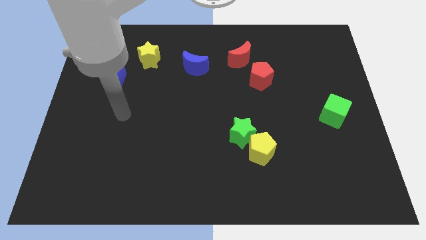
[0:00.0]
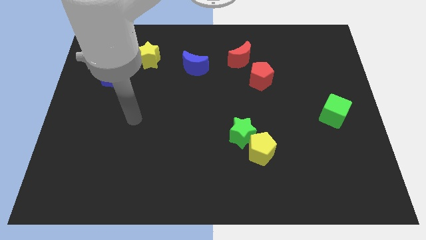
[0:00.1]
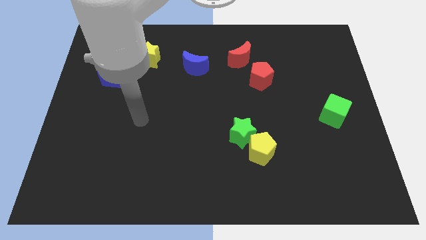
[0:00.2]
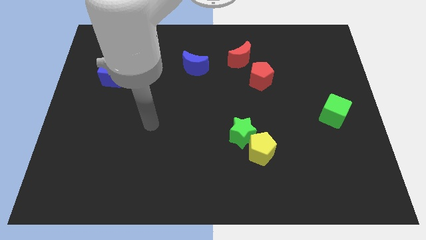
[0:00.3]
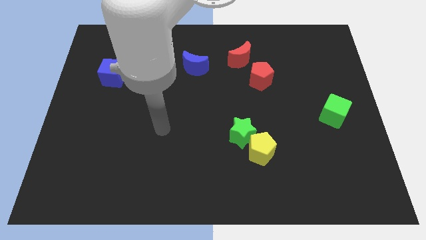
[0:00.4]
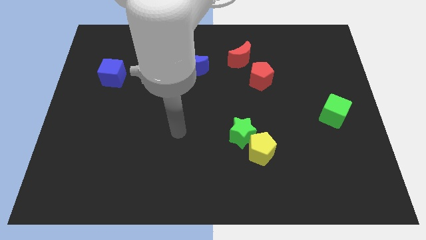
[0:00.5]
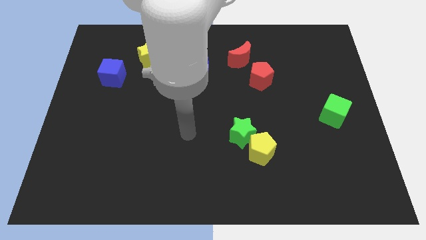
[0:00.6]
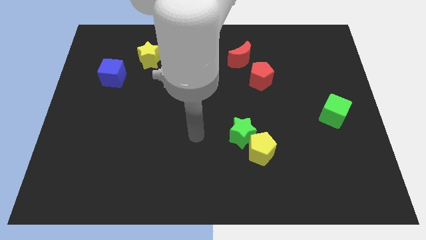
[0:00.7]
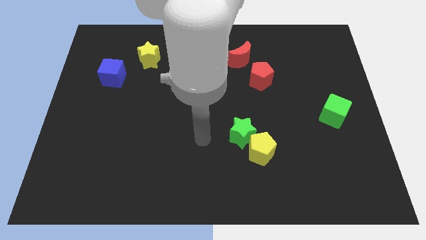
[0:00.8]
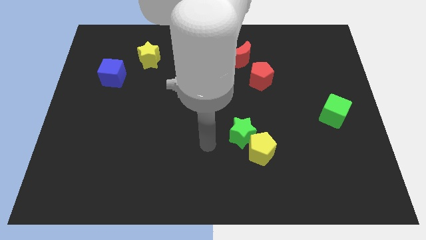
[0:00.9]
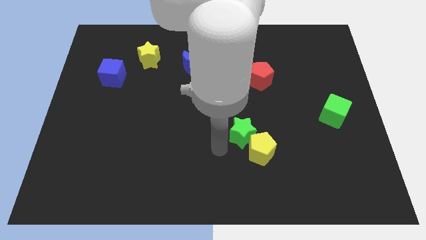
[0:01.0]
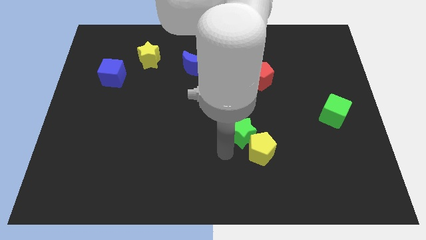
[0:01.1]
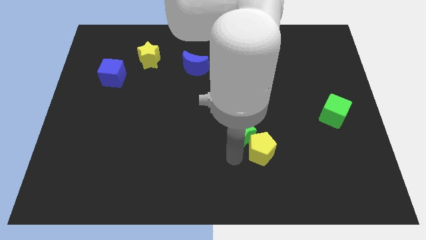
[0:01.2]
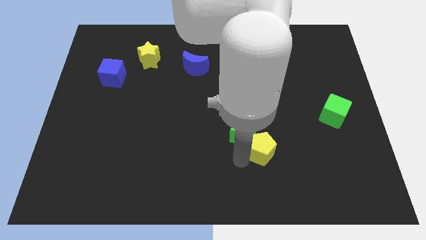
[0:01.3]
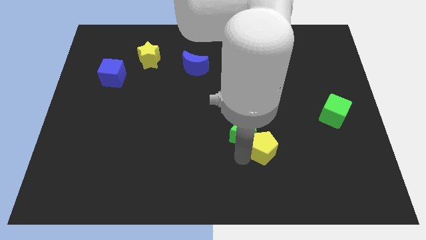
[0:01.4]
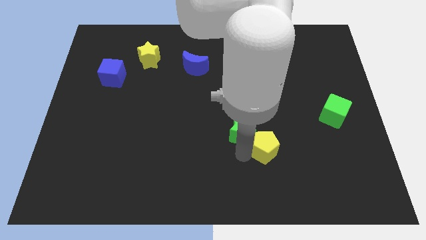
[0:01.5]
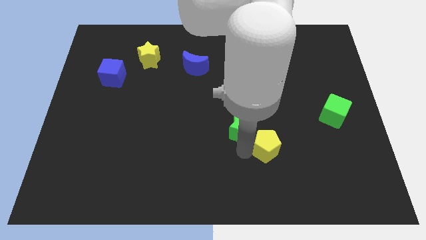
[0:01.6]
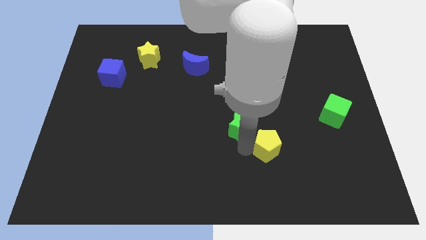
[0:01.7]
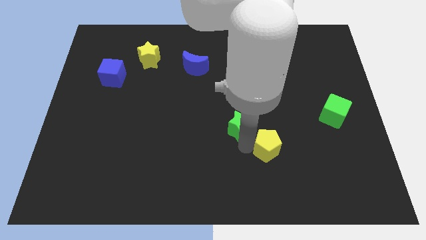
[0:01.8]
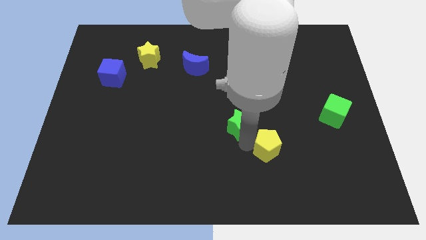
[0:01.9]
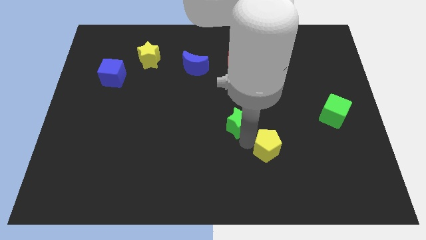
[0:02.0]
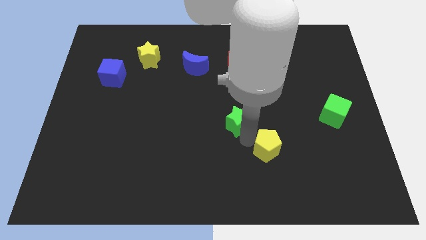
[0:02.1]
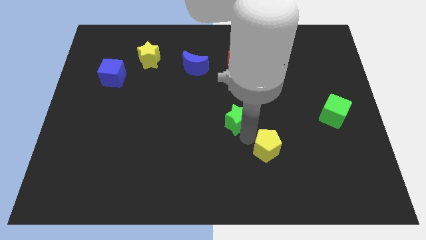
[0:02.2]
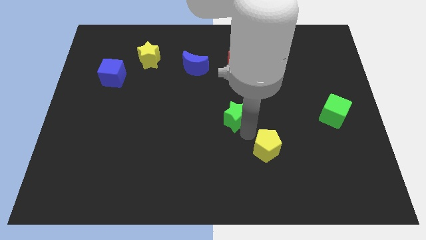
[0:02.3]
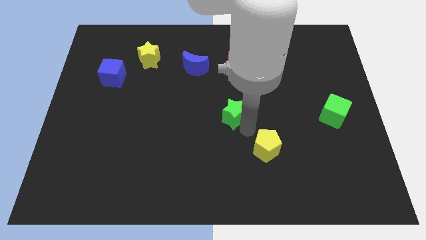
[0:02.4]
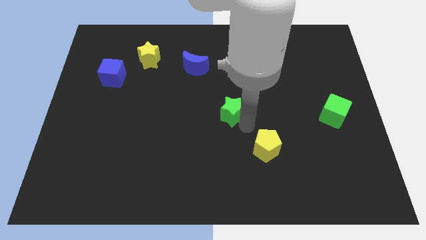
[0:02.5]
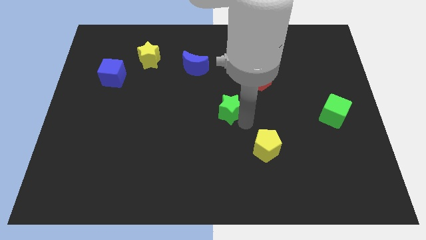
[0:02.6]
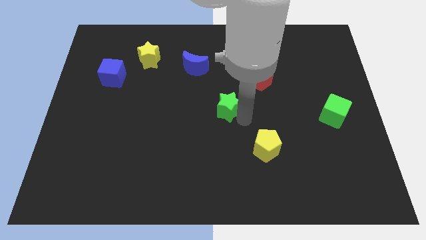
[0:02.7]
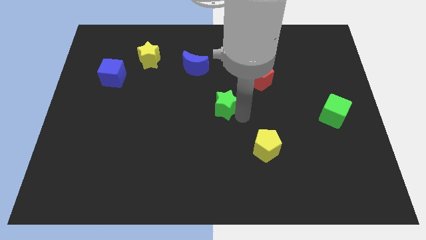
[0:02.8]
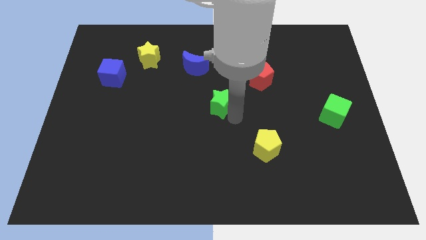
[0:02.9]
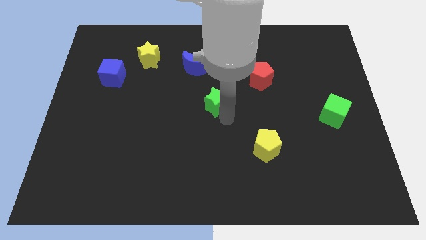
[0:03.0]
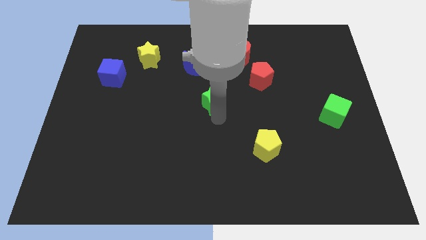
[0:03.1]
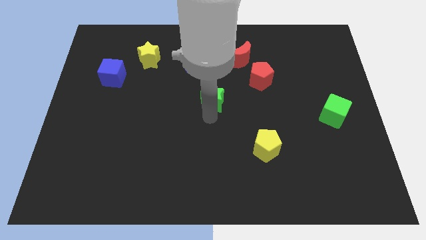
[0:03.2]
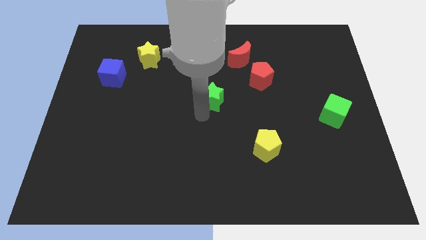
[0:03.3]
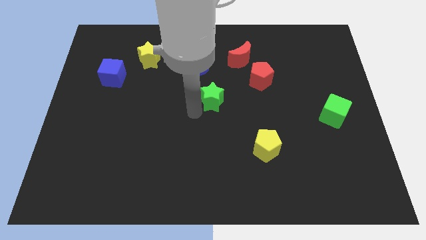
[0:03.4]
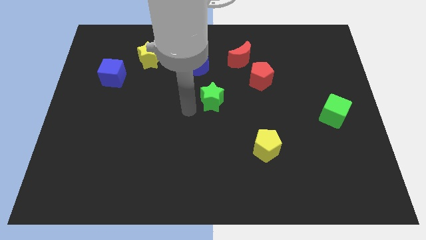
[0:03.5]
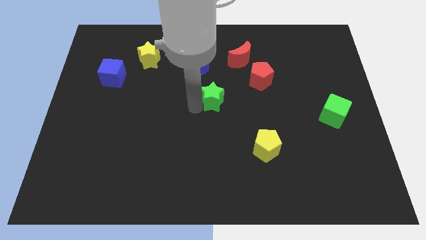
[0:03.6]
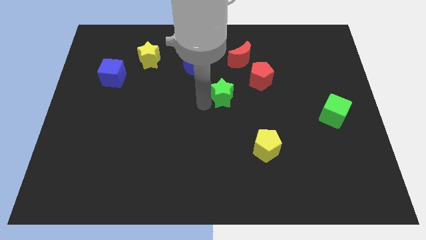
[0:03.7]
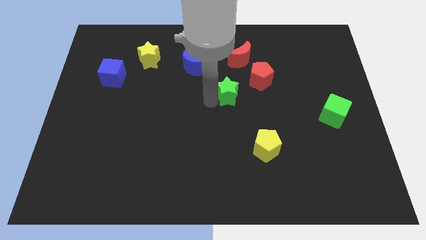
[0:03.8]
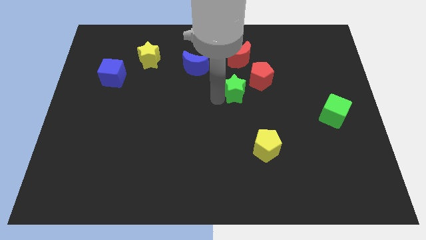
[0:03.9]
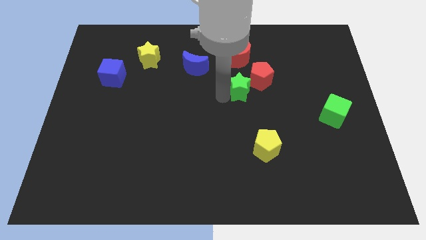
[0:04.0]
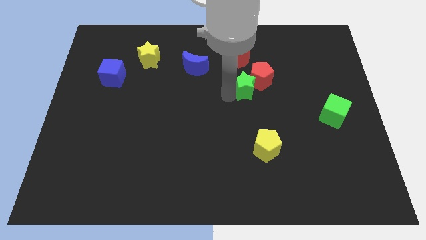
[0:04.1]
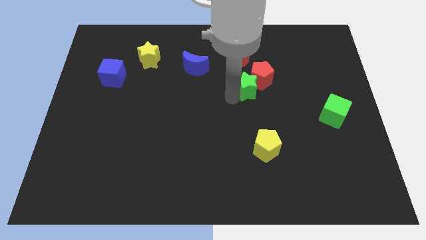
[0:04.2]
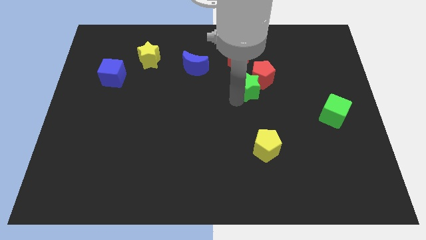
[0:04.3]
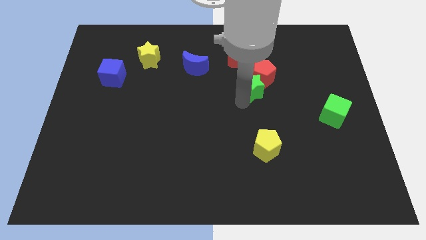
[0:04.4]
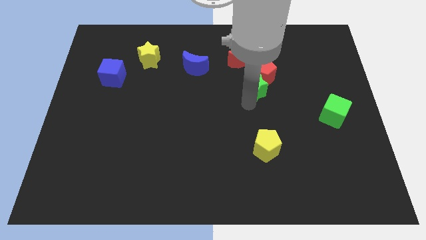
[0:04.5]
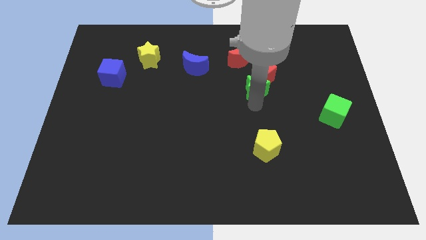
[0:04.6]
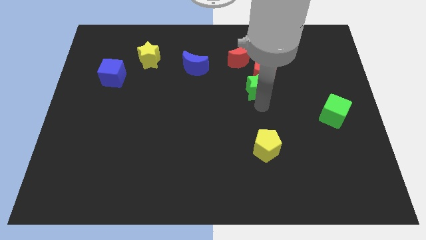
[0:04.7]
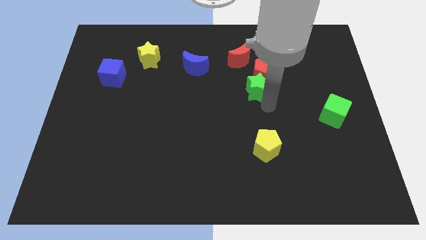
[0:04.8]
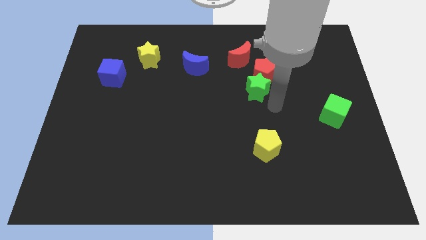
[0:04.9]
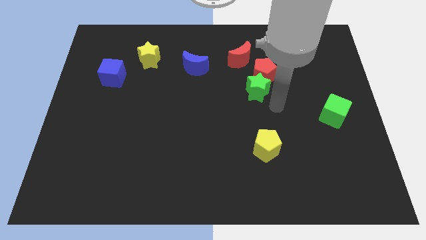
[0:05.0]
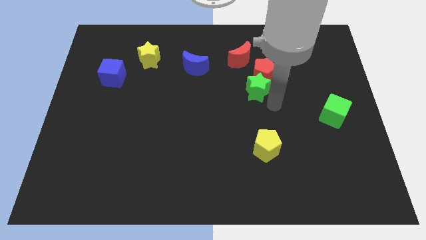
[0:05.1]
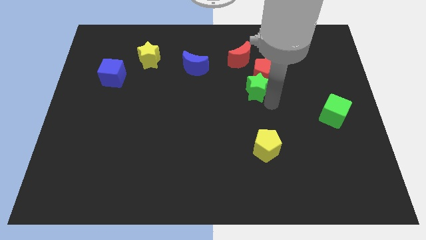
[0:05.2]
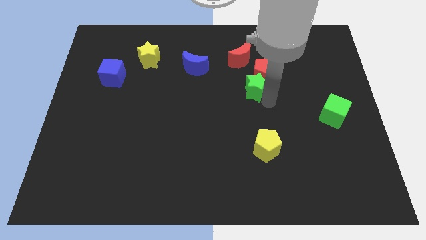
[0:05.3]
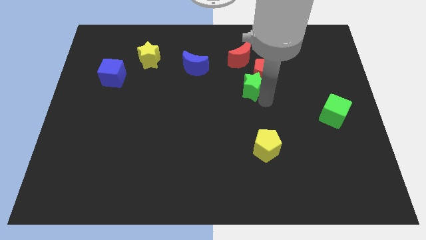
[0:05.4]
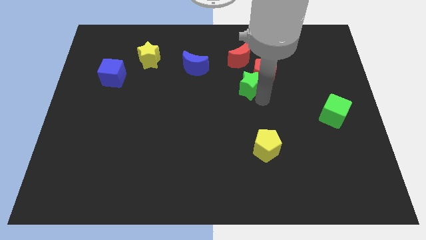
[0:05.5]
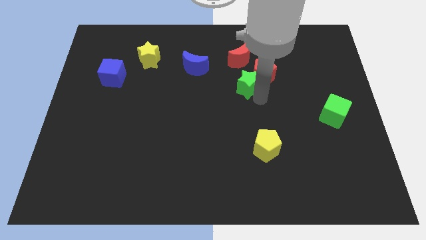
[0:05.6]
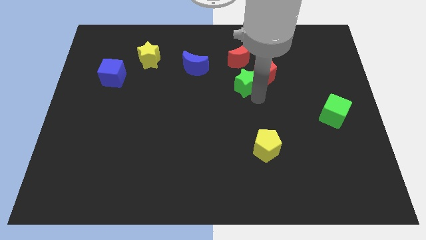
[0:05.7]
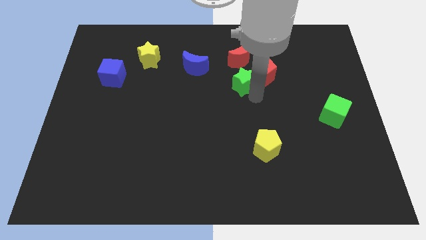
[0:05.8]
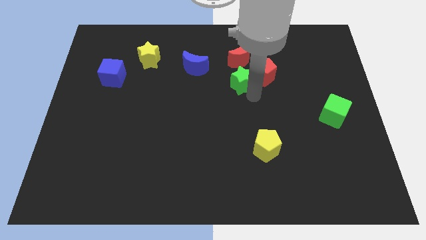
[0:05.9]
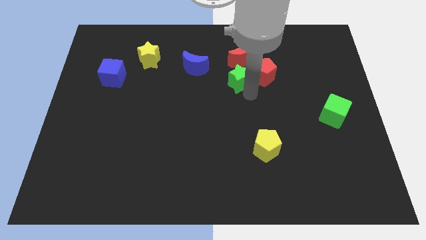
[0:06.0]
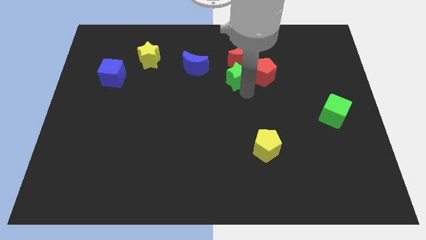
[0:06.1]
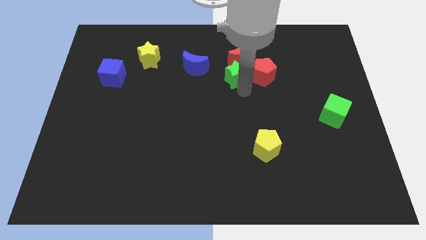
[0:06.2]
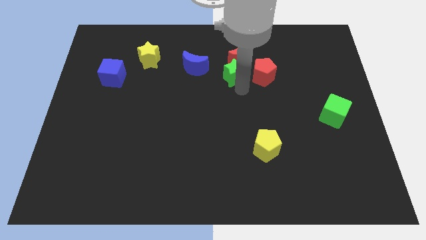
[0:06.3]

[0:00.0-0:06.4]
put the green star to the red moon
